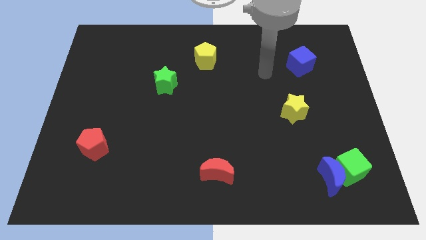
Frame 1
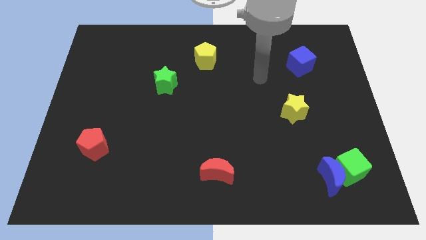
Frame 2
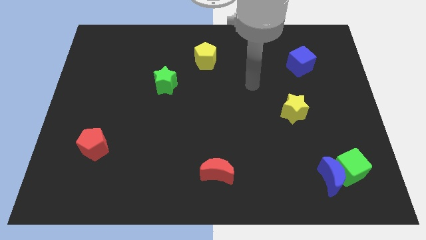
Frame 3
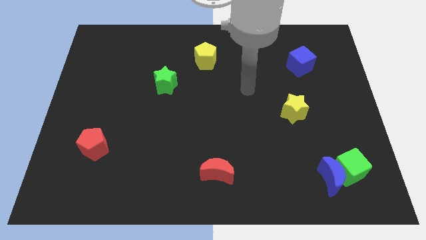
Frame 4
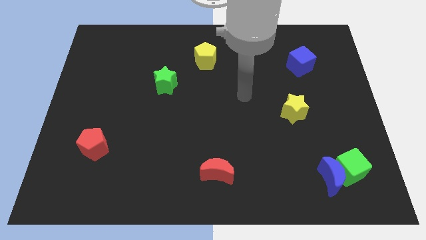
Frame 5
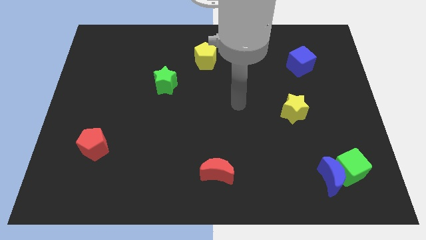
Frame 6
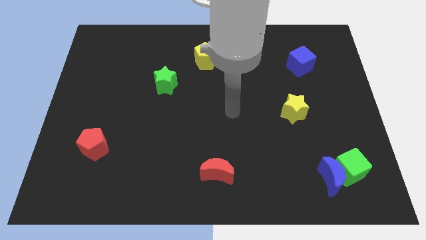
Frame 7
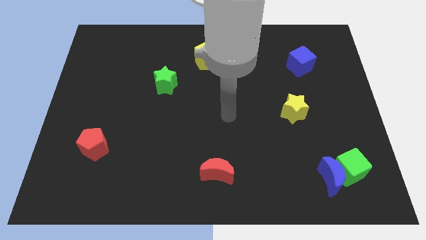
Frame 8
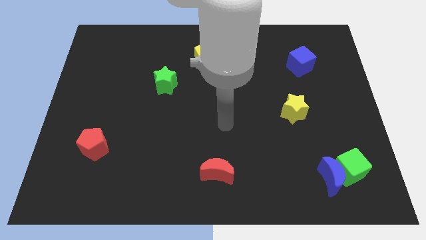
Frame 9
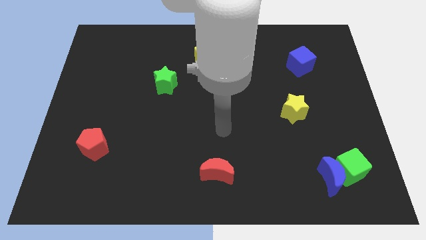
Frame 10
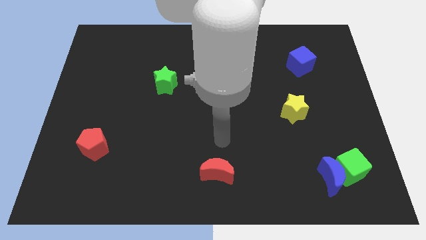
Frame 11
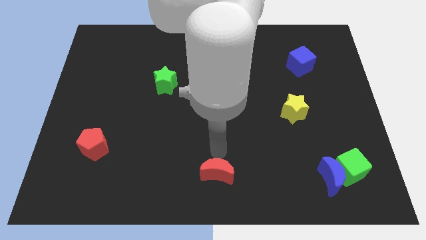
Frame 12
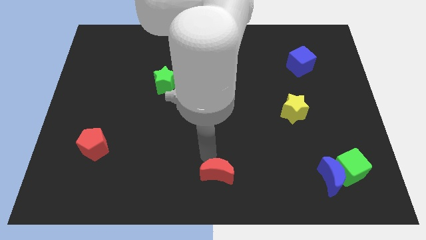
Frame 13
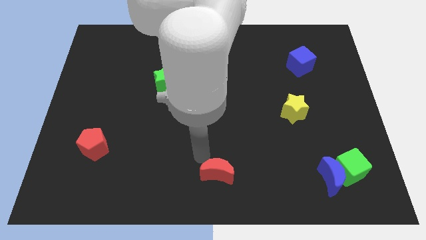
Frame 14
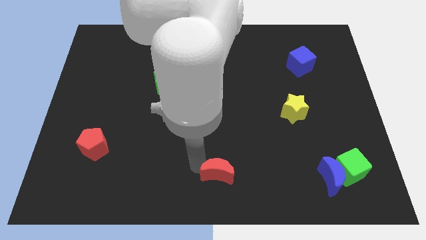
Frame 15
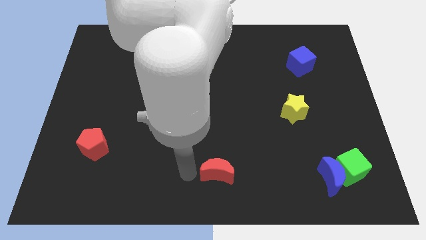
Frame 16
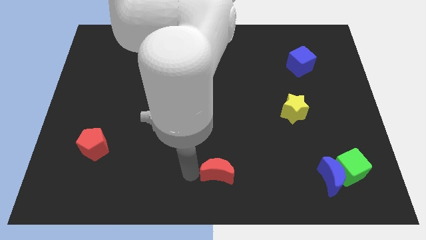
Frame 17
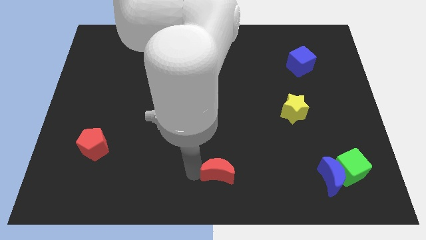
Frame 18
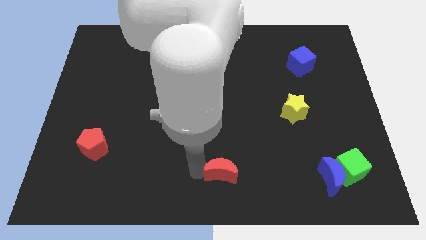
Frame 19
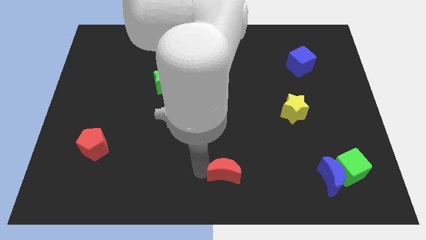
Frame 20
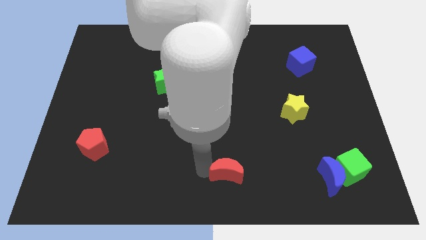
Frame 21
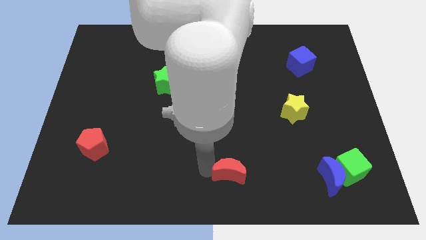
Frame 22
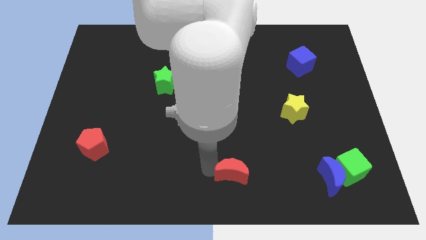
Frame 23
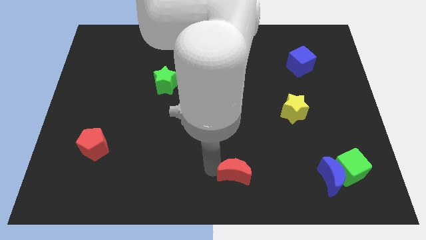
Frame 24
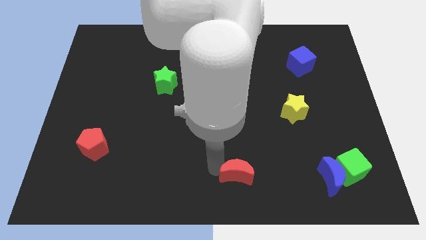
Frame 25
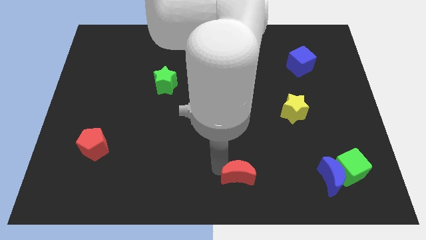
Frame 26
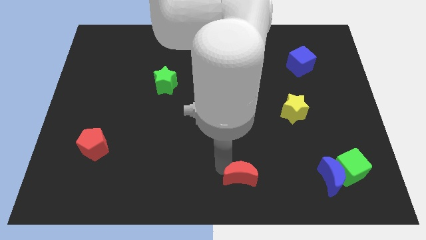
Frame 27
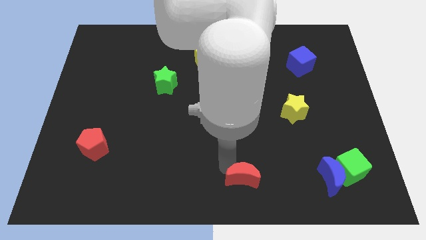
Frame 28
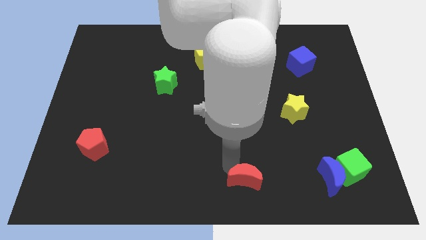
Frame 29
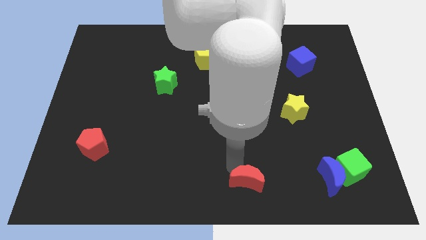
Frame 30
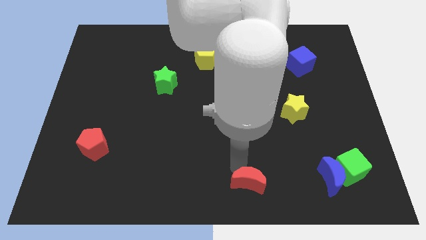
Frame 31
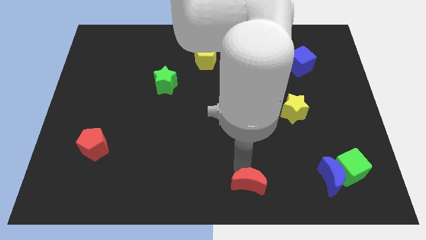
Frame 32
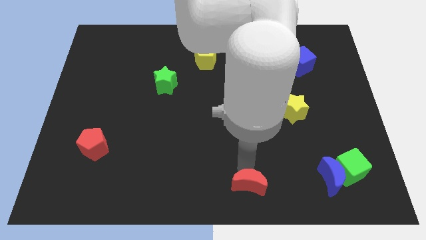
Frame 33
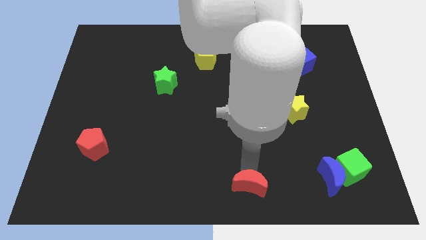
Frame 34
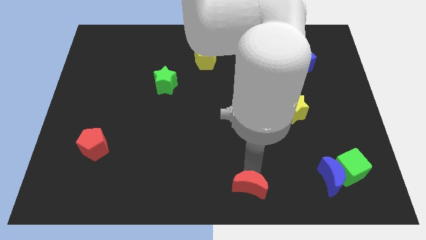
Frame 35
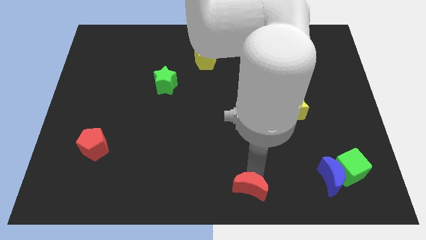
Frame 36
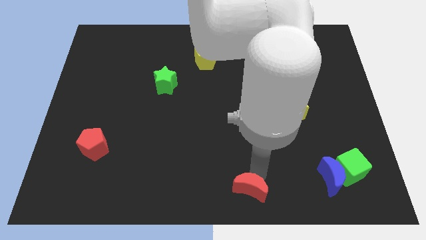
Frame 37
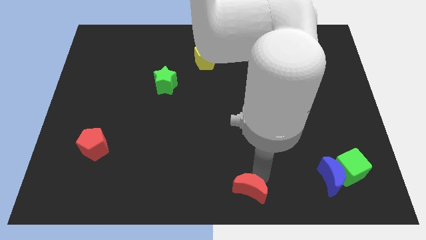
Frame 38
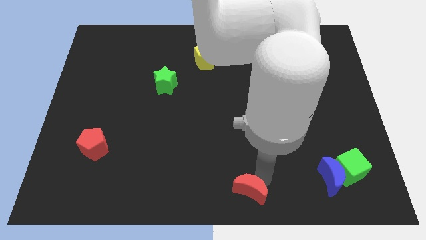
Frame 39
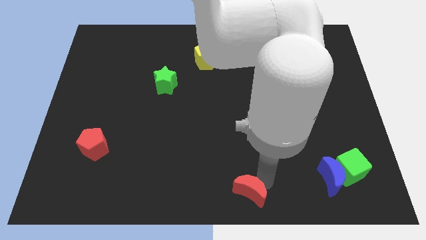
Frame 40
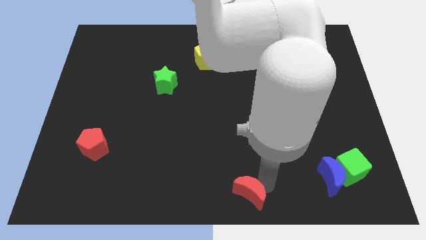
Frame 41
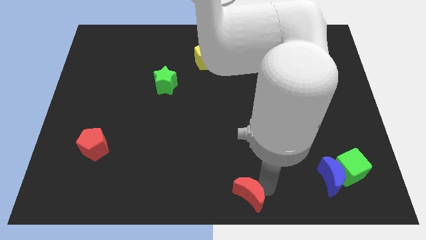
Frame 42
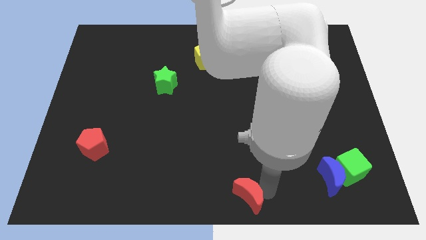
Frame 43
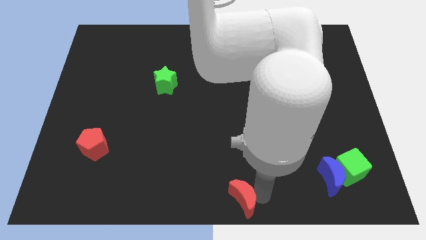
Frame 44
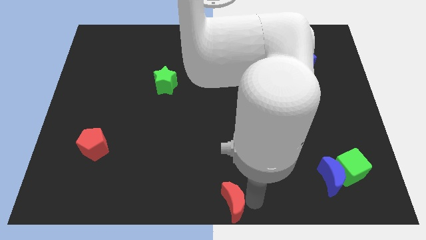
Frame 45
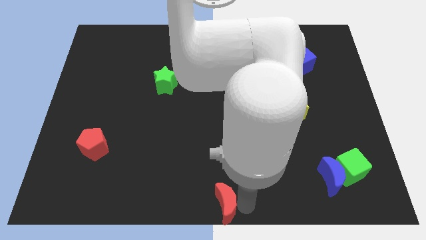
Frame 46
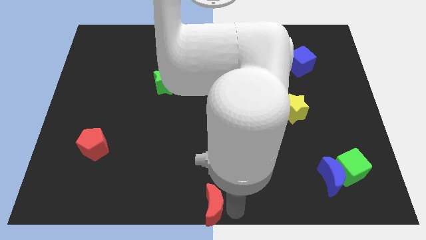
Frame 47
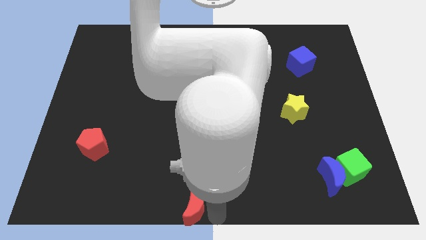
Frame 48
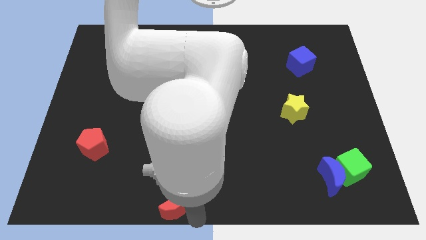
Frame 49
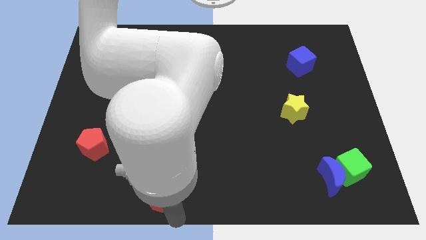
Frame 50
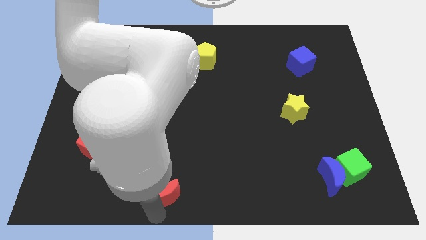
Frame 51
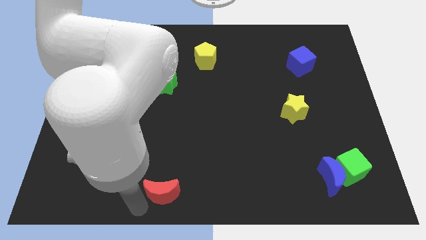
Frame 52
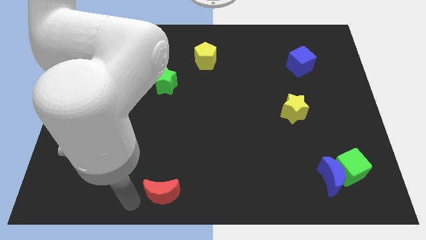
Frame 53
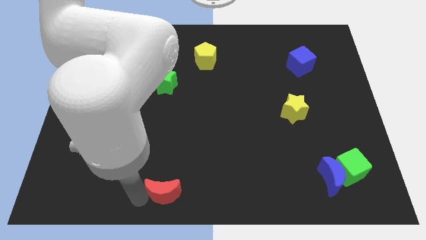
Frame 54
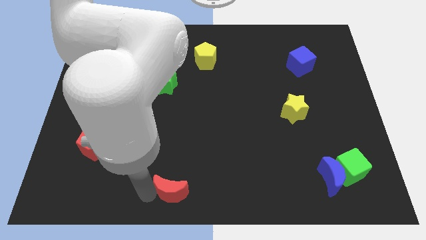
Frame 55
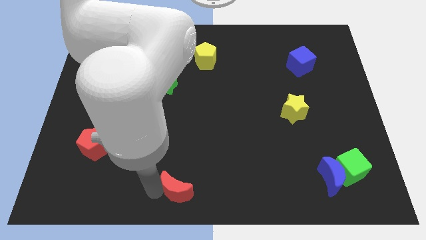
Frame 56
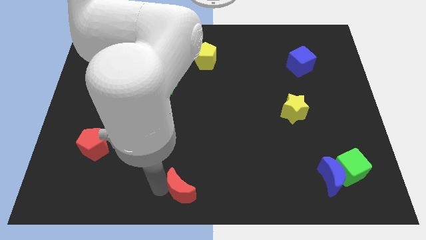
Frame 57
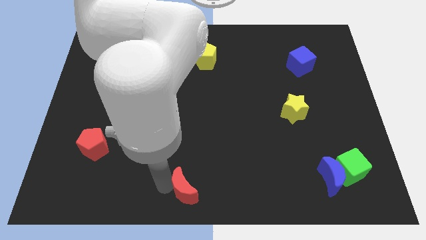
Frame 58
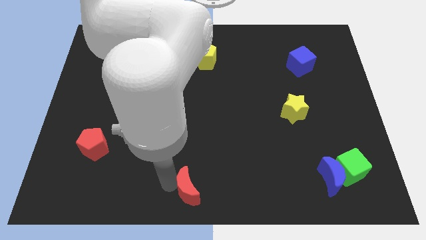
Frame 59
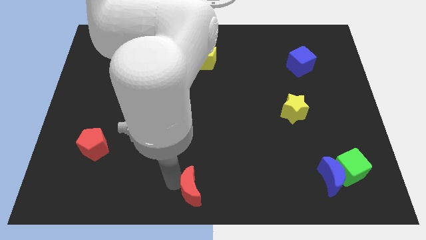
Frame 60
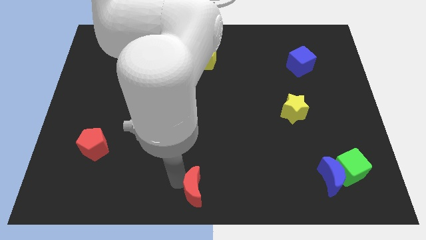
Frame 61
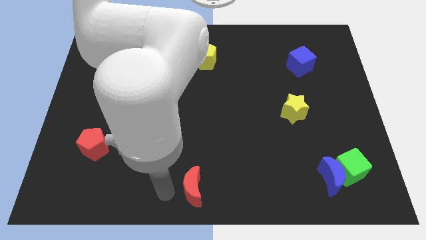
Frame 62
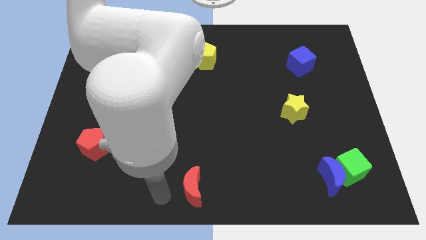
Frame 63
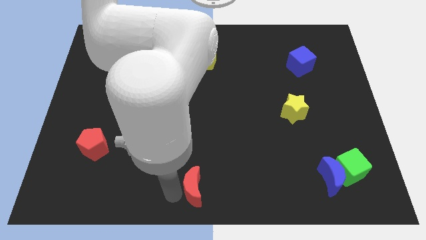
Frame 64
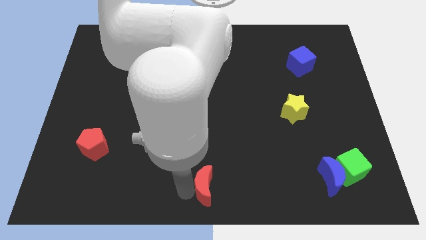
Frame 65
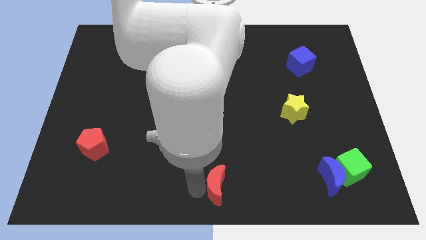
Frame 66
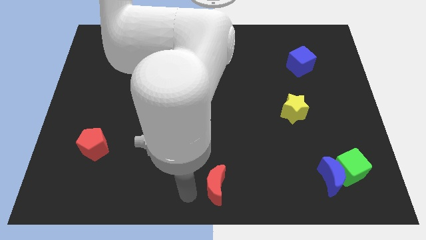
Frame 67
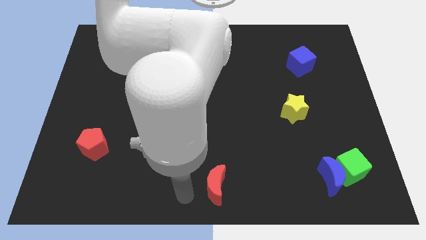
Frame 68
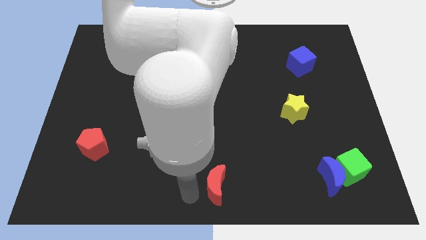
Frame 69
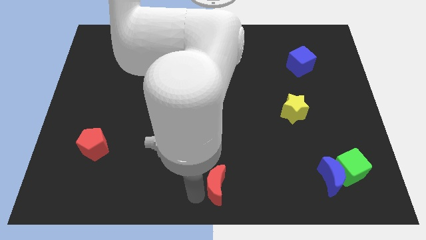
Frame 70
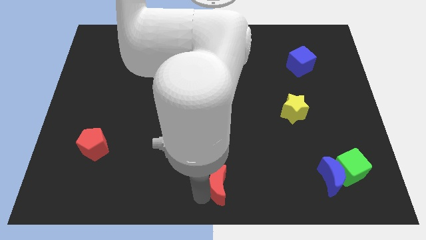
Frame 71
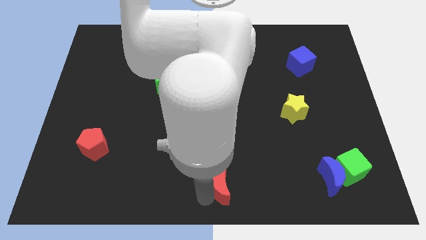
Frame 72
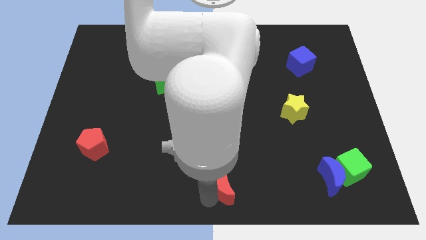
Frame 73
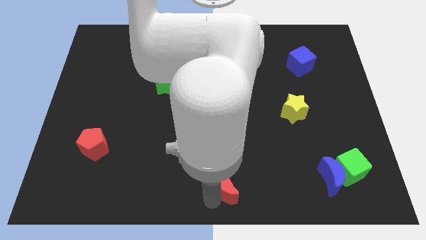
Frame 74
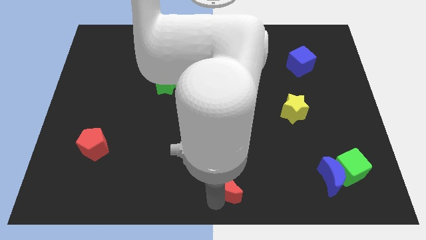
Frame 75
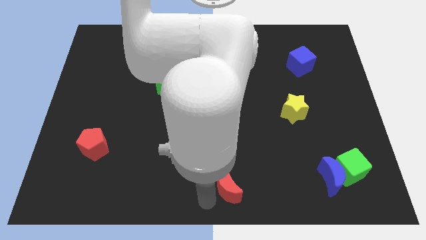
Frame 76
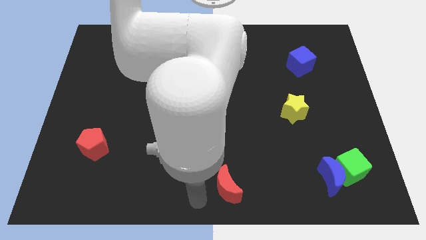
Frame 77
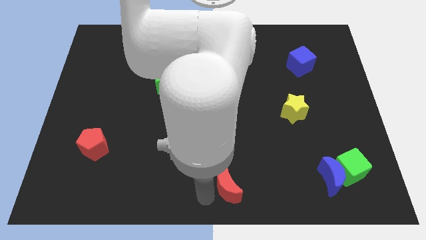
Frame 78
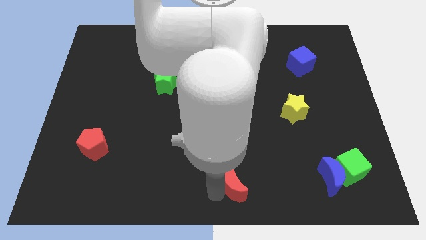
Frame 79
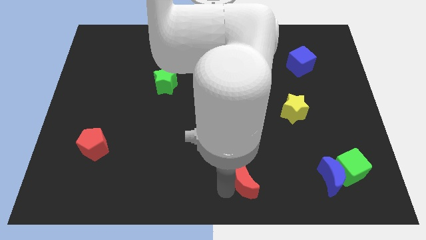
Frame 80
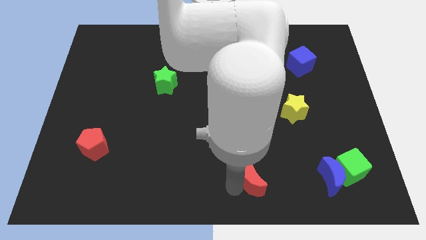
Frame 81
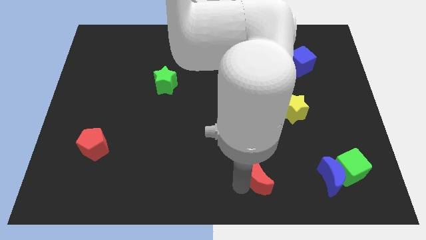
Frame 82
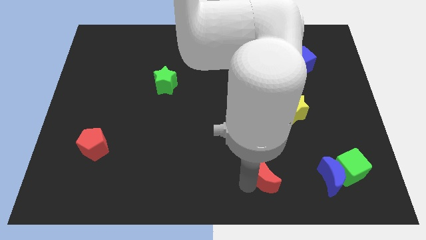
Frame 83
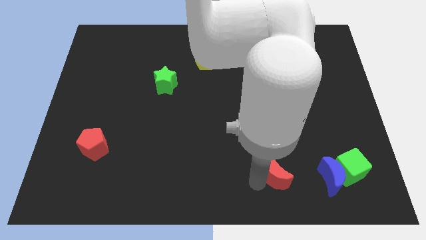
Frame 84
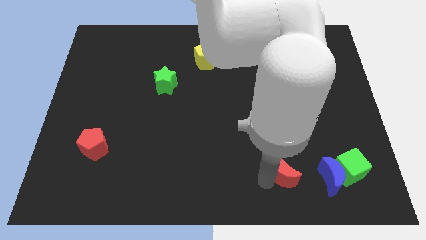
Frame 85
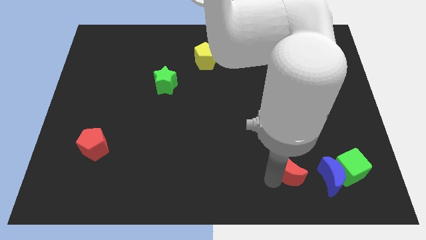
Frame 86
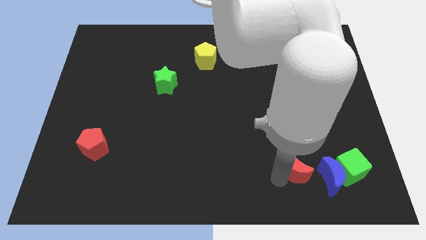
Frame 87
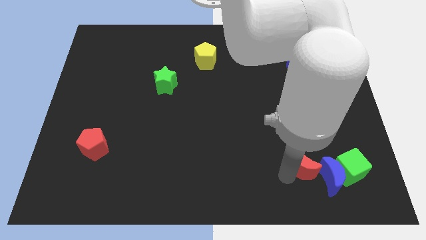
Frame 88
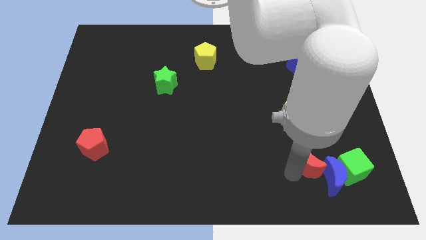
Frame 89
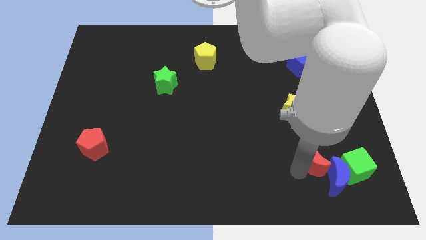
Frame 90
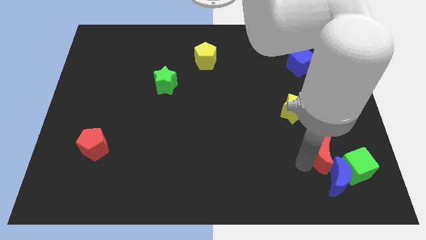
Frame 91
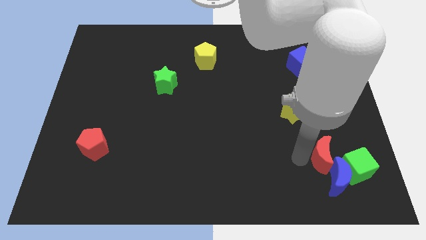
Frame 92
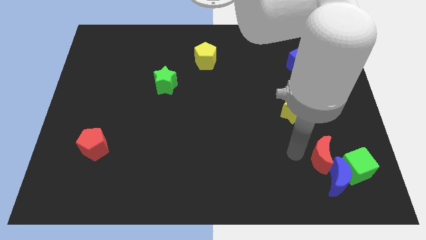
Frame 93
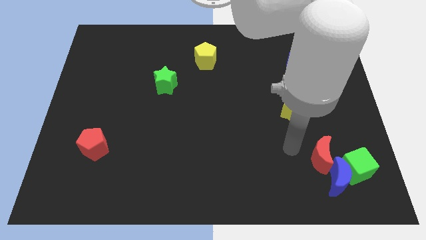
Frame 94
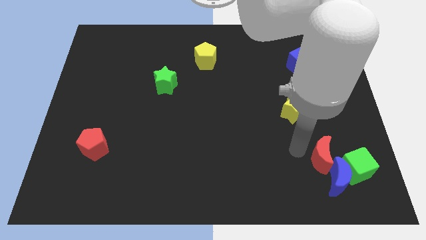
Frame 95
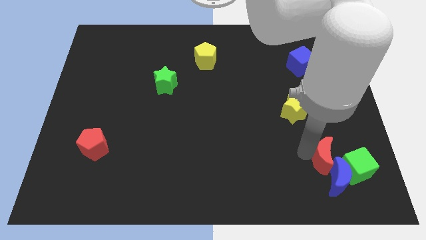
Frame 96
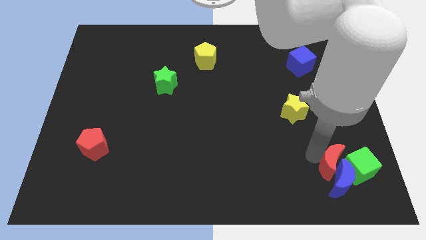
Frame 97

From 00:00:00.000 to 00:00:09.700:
move the red moon next to the green cube
